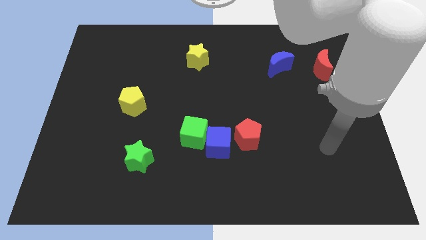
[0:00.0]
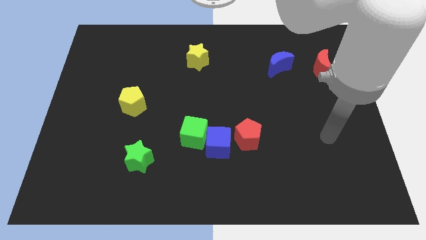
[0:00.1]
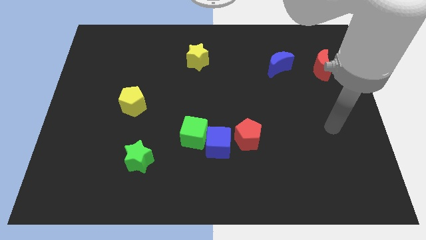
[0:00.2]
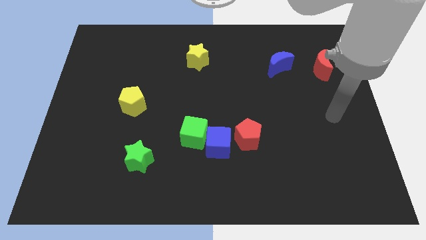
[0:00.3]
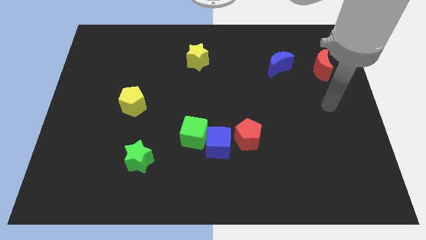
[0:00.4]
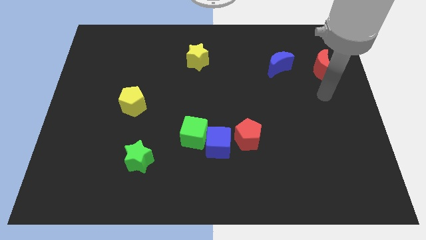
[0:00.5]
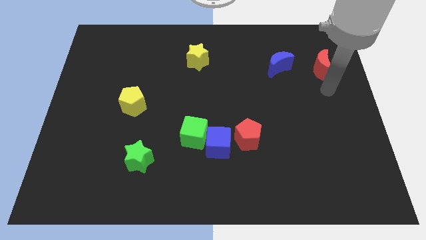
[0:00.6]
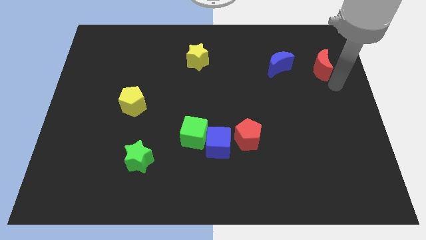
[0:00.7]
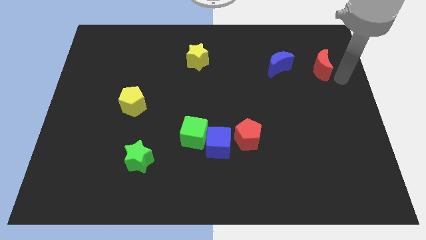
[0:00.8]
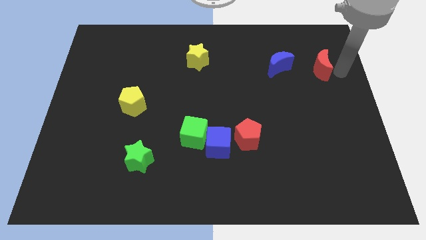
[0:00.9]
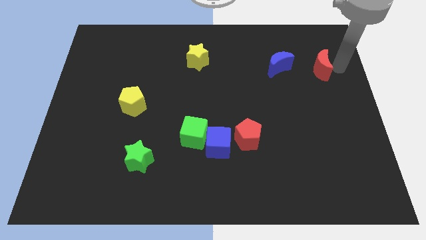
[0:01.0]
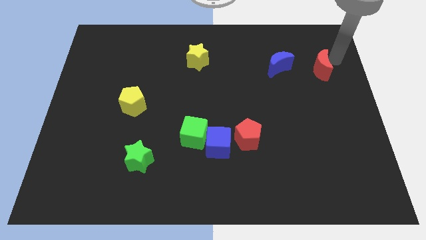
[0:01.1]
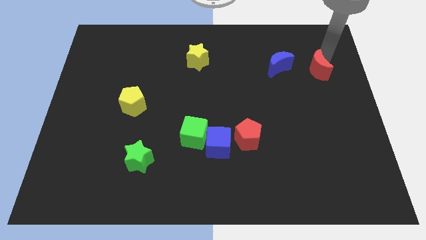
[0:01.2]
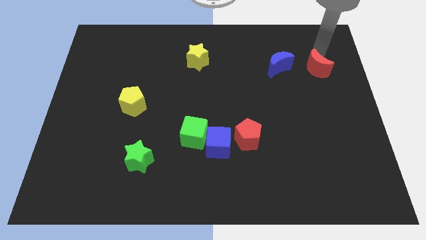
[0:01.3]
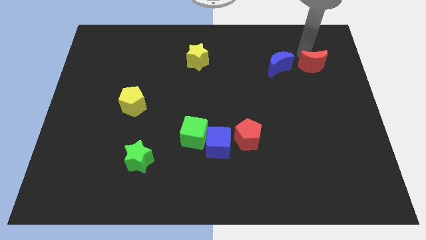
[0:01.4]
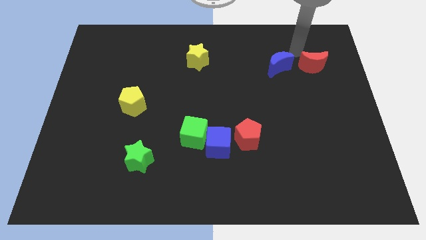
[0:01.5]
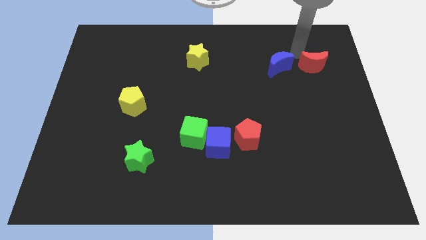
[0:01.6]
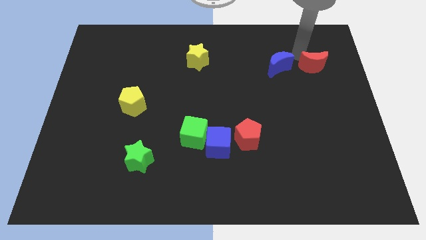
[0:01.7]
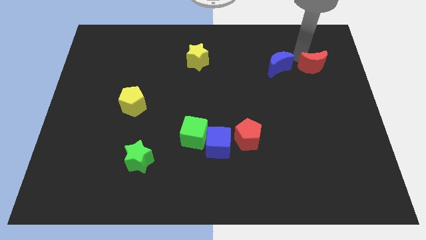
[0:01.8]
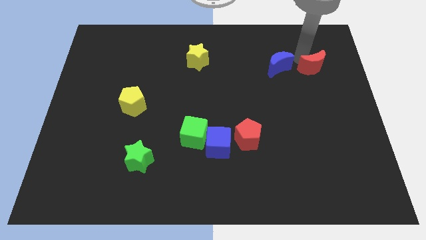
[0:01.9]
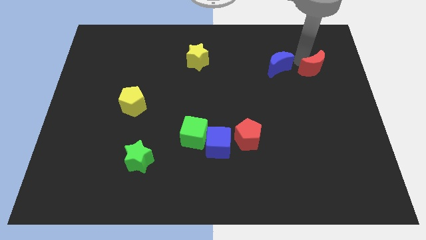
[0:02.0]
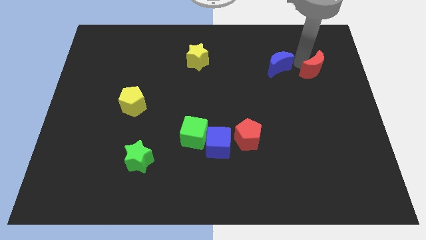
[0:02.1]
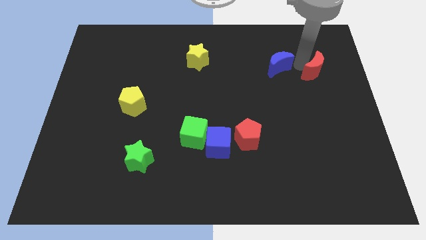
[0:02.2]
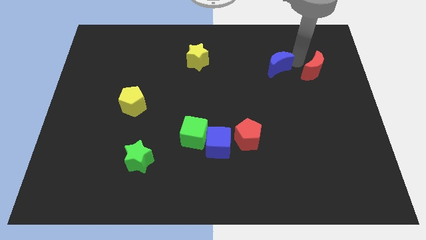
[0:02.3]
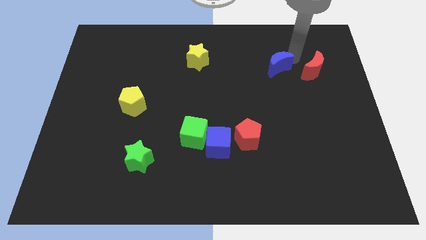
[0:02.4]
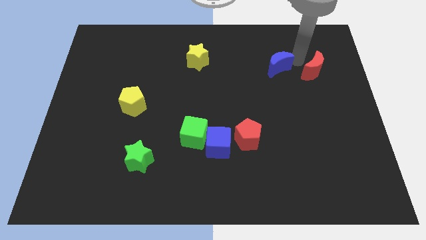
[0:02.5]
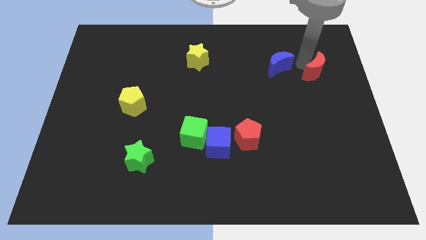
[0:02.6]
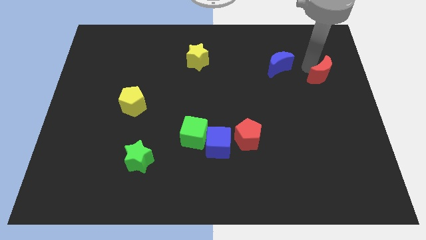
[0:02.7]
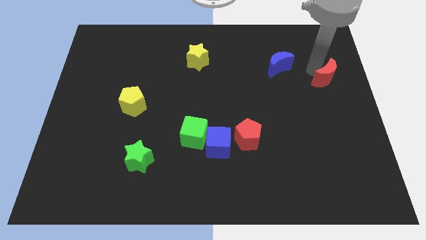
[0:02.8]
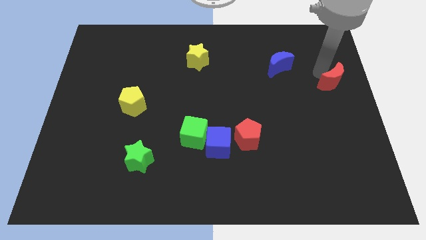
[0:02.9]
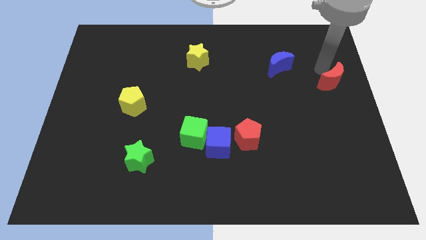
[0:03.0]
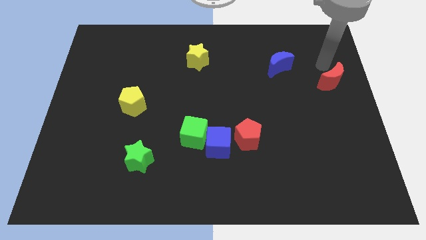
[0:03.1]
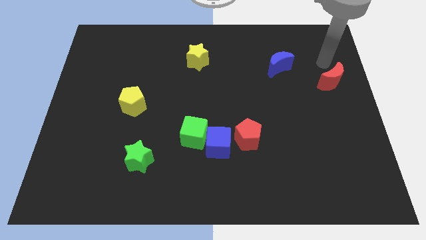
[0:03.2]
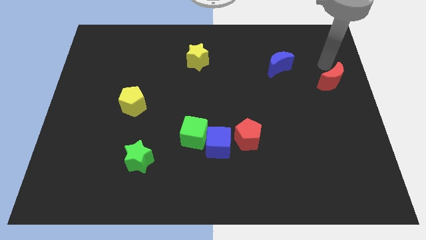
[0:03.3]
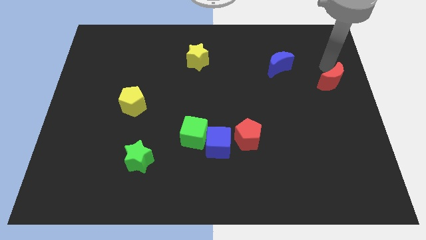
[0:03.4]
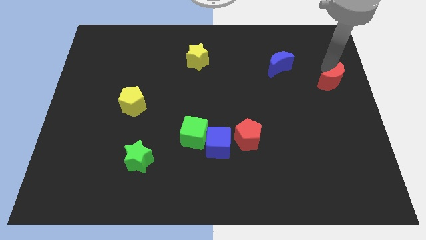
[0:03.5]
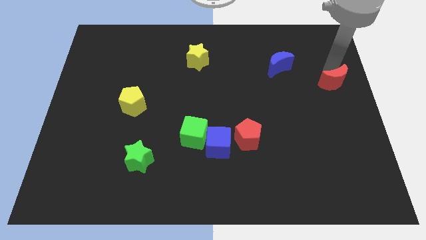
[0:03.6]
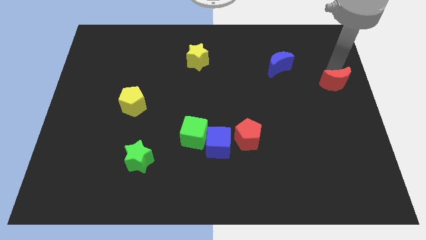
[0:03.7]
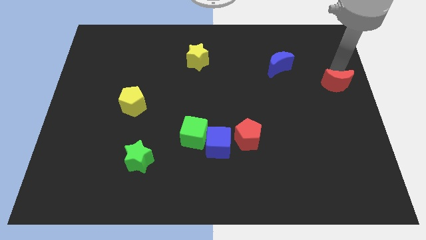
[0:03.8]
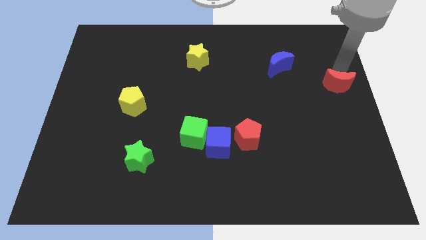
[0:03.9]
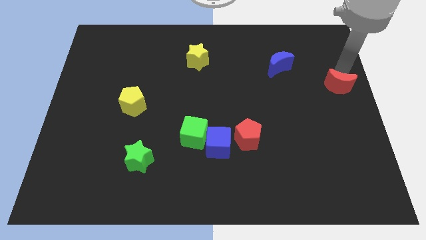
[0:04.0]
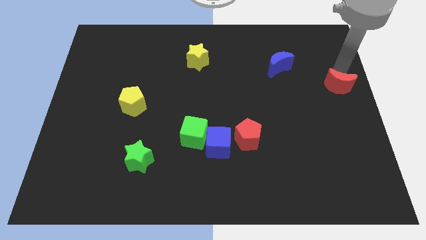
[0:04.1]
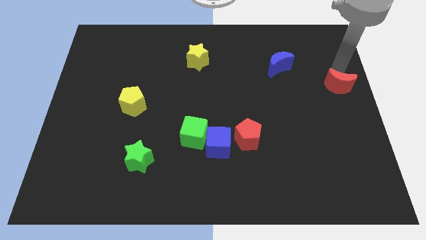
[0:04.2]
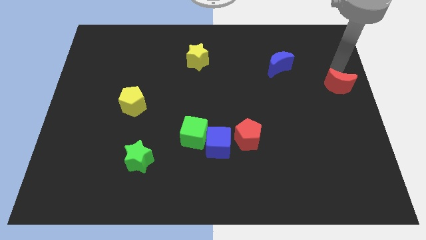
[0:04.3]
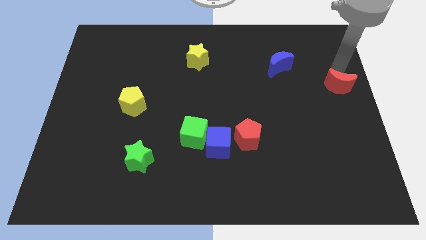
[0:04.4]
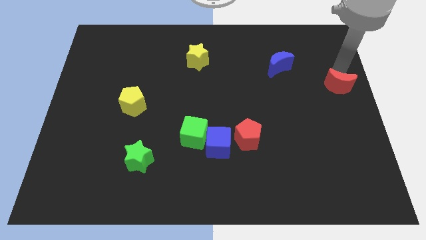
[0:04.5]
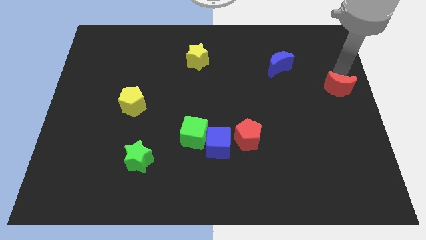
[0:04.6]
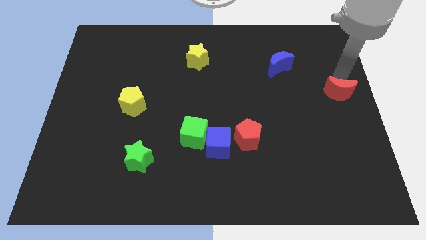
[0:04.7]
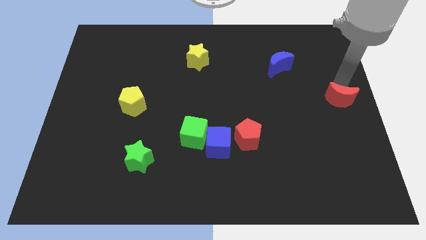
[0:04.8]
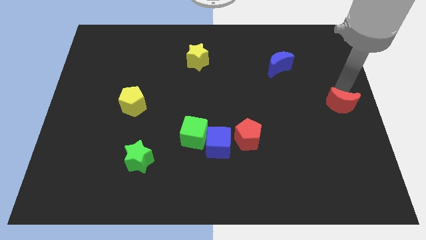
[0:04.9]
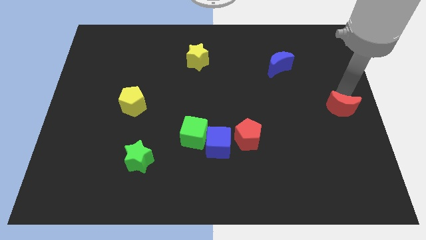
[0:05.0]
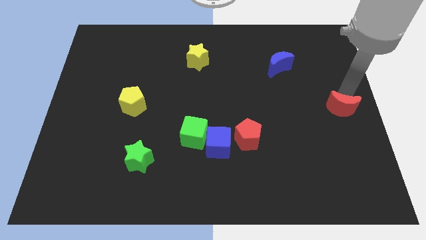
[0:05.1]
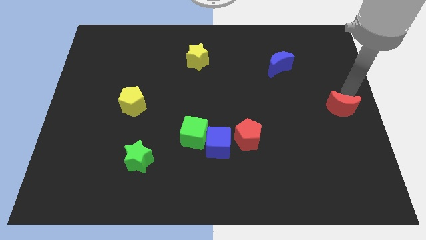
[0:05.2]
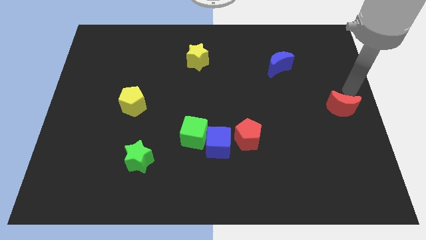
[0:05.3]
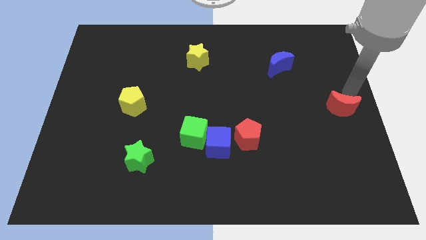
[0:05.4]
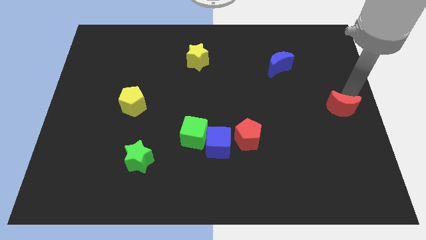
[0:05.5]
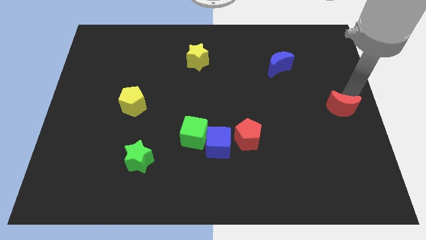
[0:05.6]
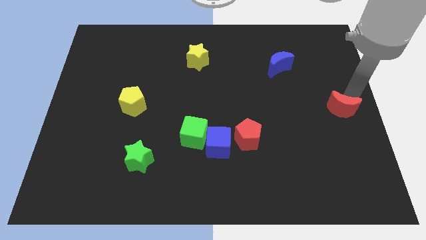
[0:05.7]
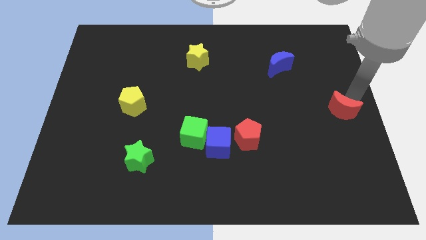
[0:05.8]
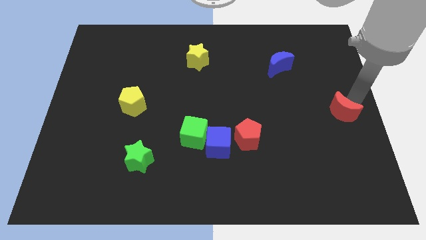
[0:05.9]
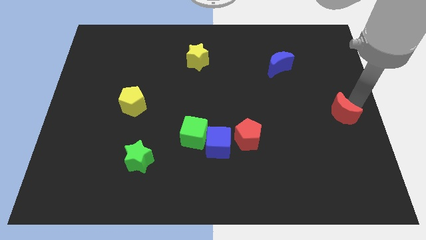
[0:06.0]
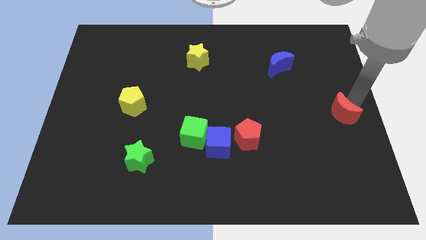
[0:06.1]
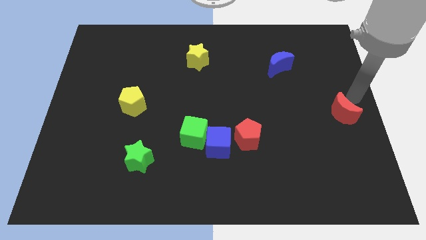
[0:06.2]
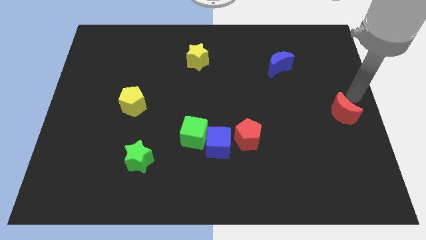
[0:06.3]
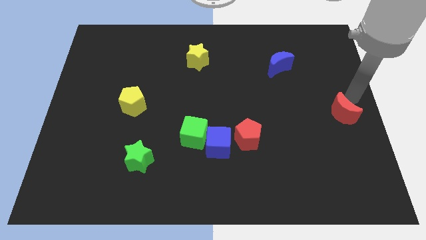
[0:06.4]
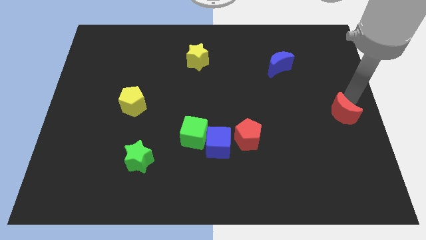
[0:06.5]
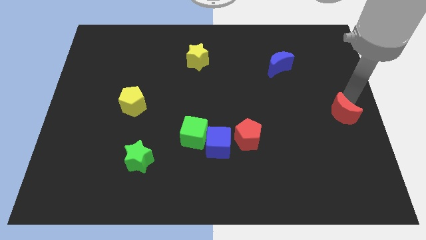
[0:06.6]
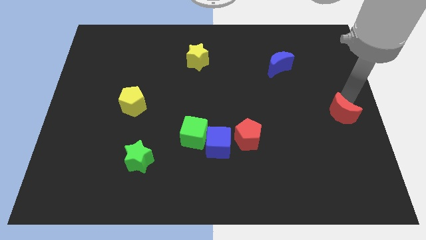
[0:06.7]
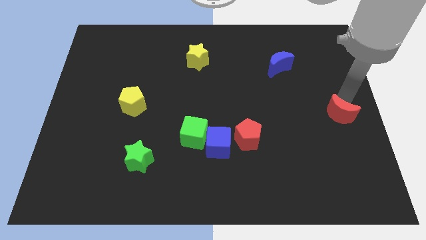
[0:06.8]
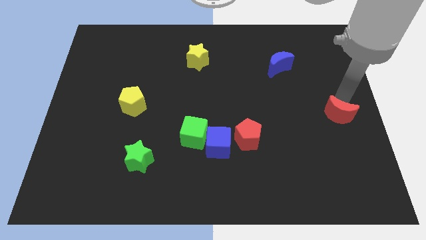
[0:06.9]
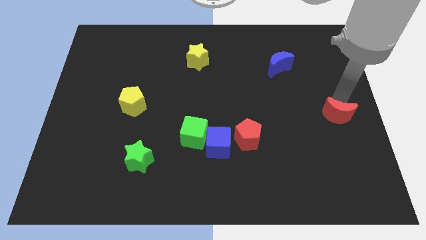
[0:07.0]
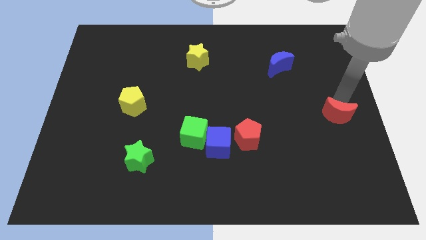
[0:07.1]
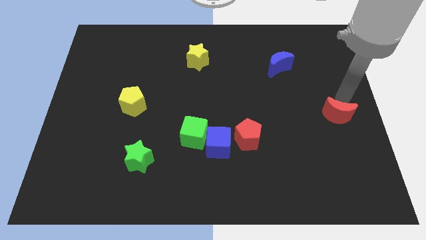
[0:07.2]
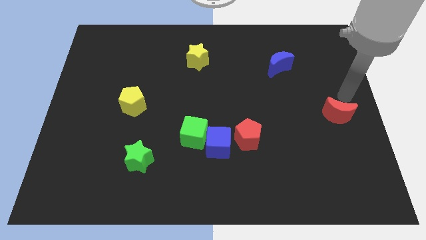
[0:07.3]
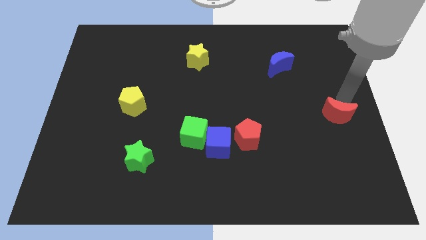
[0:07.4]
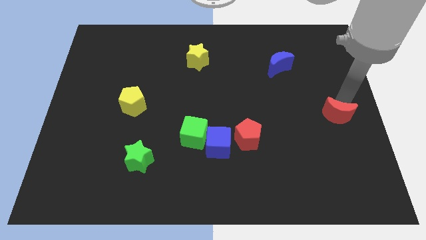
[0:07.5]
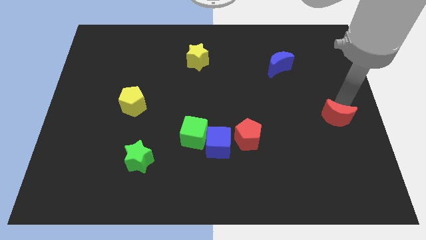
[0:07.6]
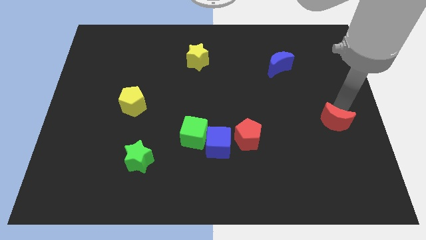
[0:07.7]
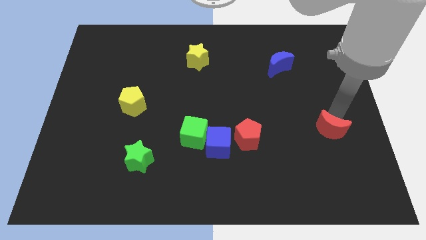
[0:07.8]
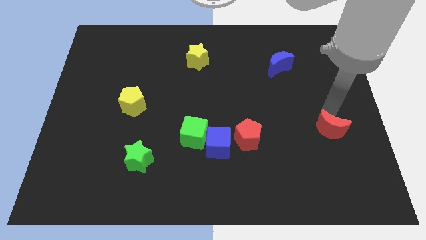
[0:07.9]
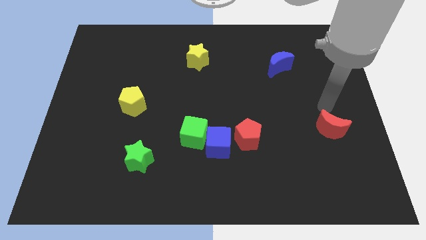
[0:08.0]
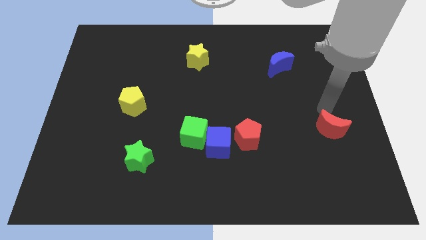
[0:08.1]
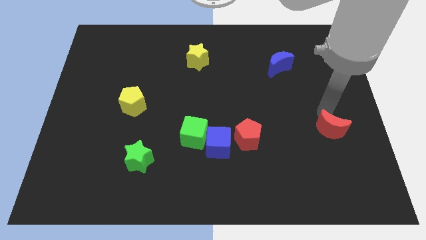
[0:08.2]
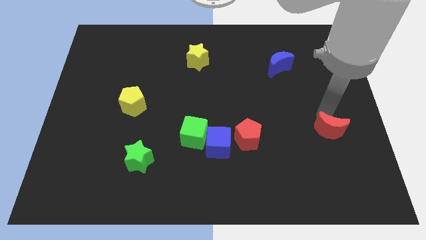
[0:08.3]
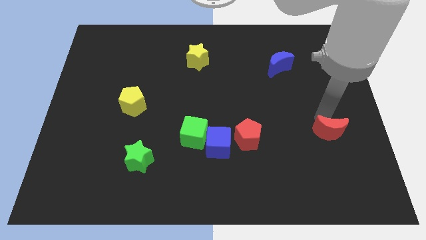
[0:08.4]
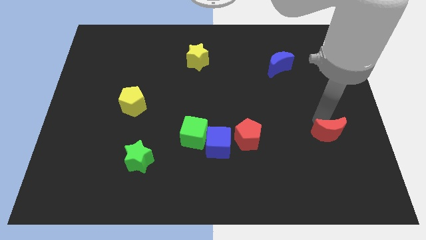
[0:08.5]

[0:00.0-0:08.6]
move the red moon downwards
